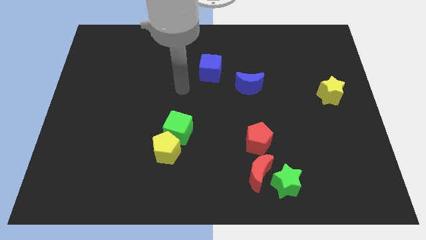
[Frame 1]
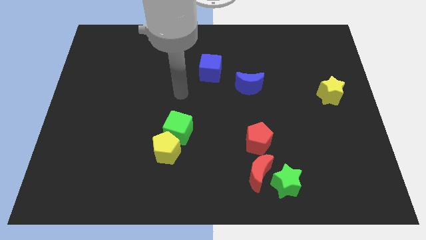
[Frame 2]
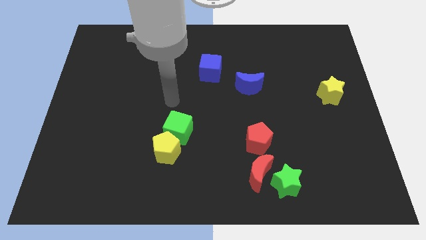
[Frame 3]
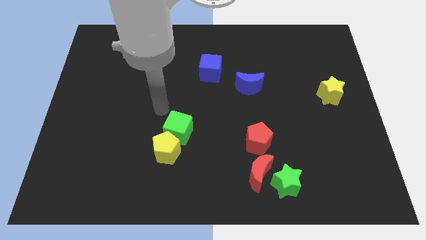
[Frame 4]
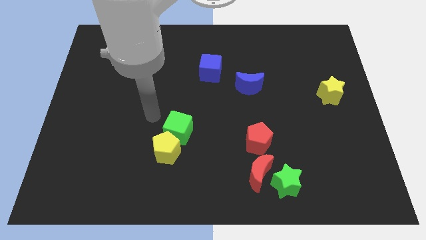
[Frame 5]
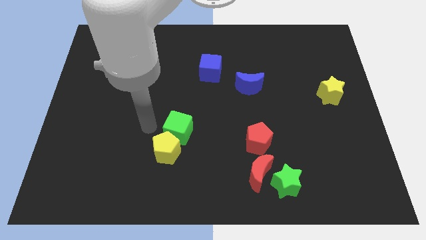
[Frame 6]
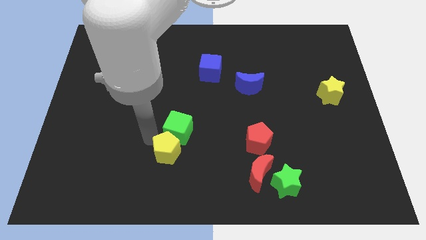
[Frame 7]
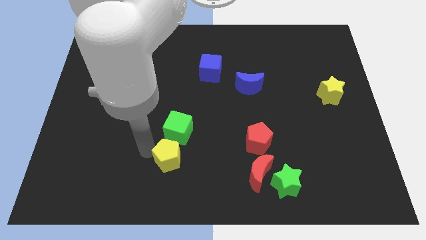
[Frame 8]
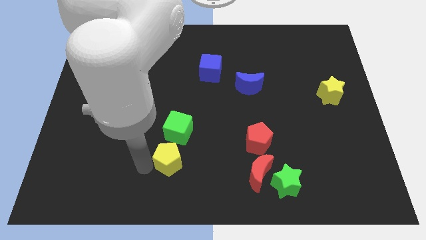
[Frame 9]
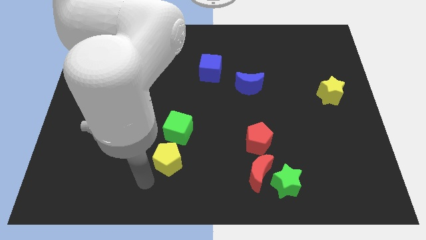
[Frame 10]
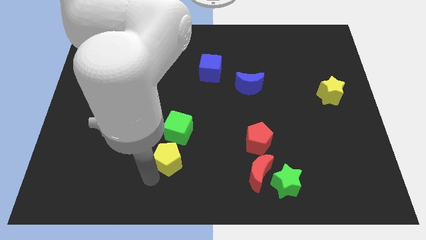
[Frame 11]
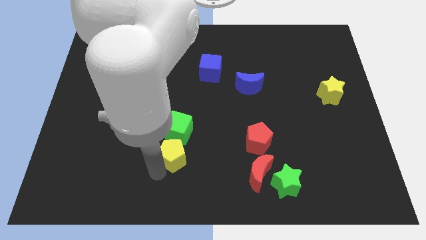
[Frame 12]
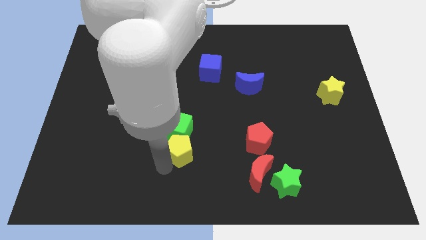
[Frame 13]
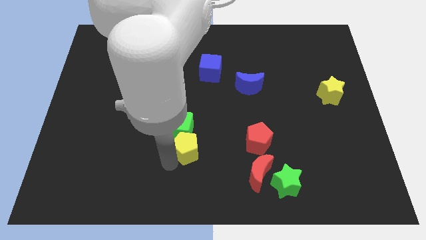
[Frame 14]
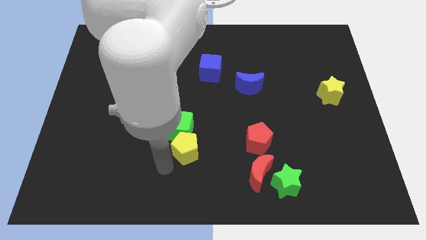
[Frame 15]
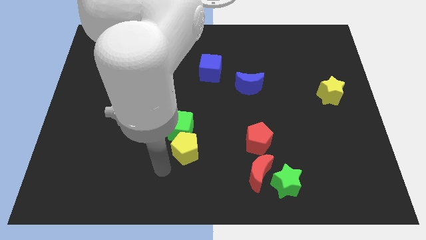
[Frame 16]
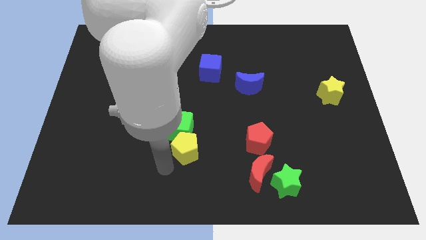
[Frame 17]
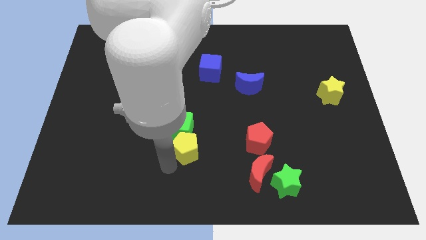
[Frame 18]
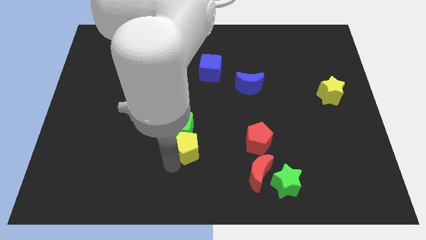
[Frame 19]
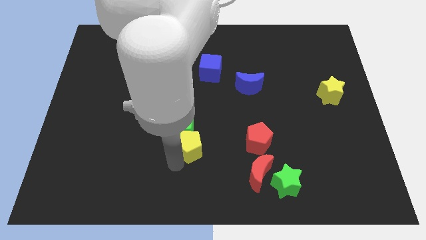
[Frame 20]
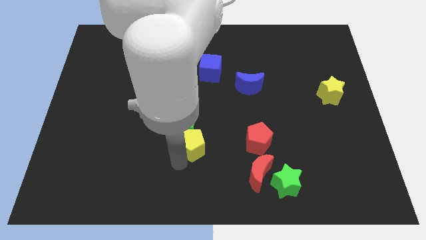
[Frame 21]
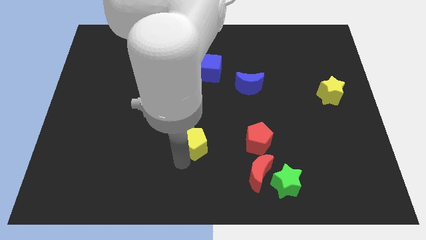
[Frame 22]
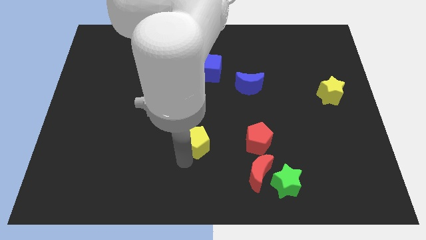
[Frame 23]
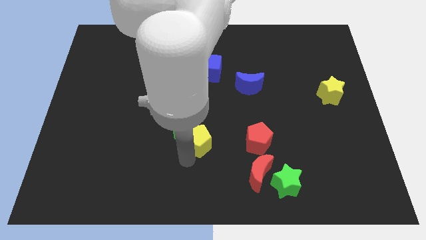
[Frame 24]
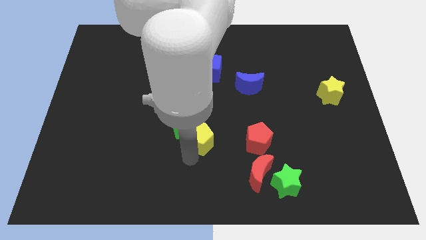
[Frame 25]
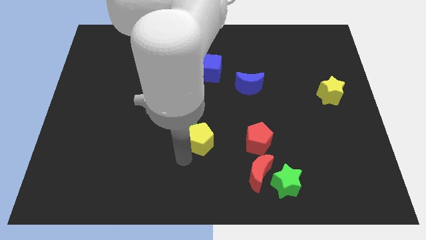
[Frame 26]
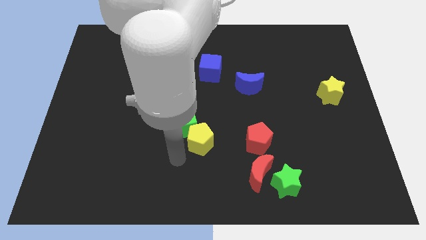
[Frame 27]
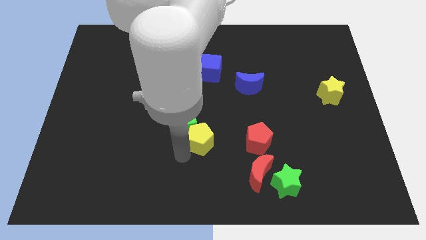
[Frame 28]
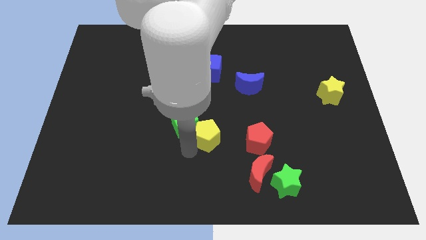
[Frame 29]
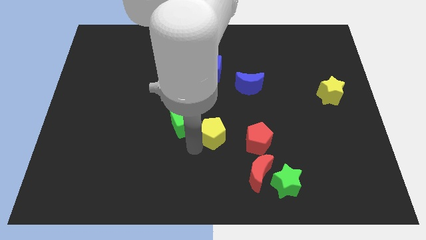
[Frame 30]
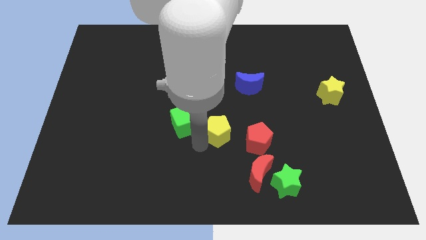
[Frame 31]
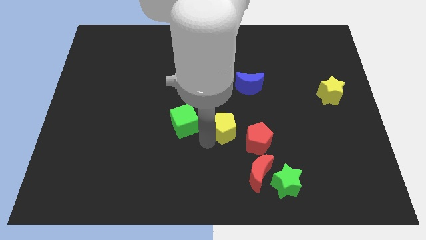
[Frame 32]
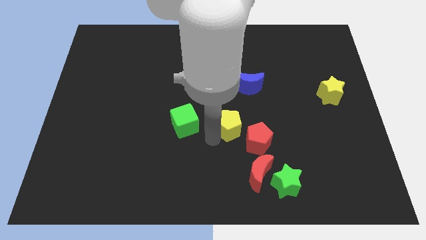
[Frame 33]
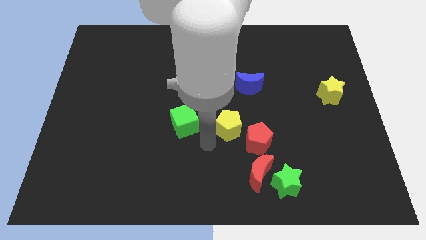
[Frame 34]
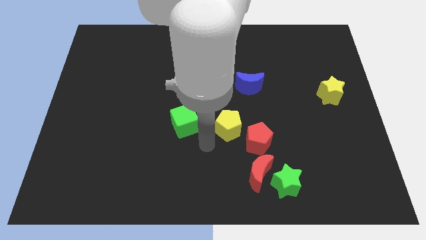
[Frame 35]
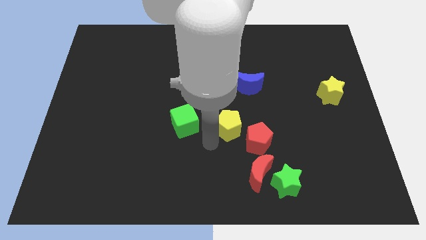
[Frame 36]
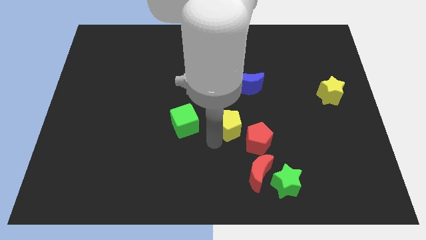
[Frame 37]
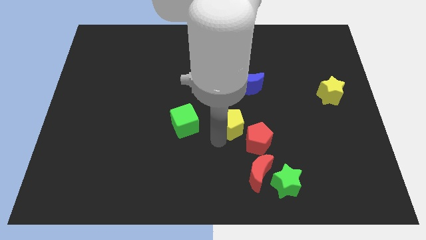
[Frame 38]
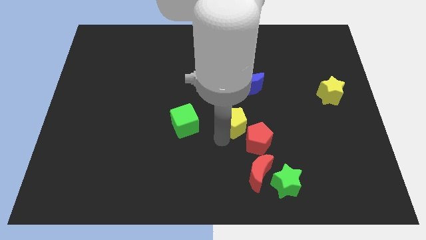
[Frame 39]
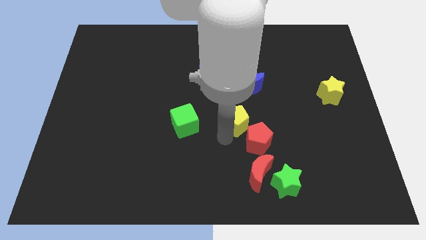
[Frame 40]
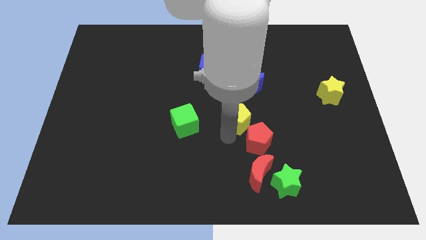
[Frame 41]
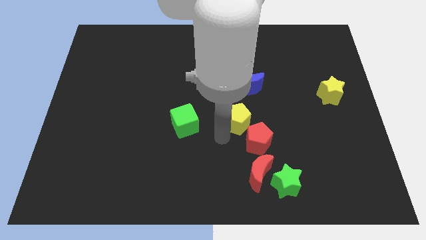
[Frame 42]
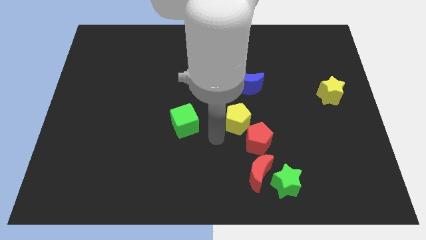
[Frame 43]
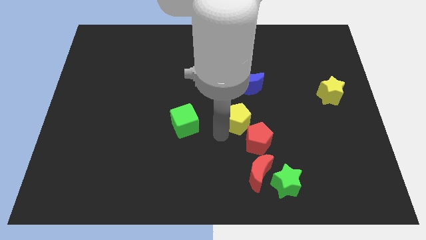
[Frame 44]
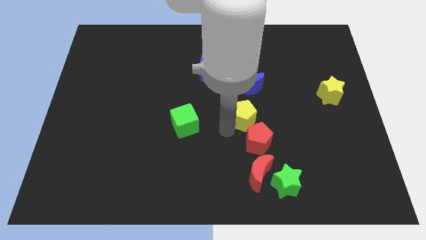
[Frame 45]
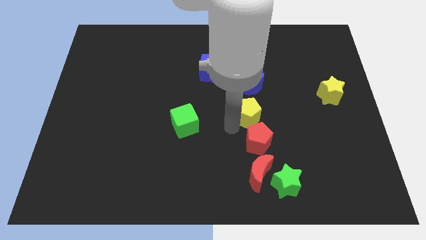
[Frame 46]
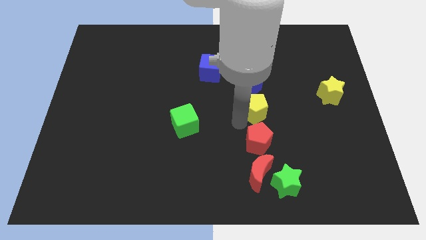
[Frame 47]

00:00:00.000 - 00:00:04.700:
slide the yellow pentagon up and to the right diagonally

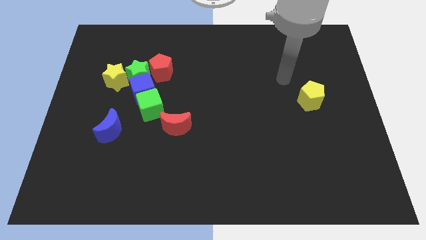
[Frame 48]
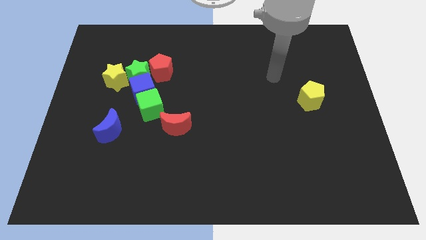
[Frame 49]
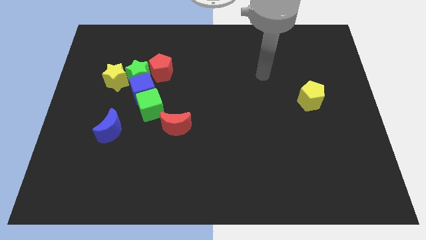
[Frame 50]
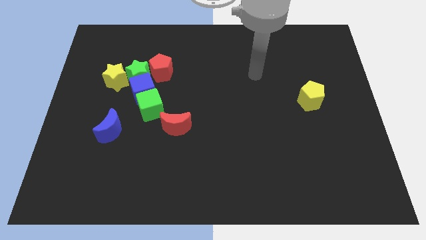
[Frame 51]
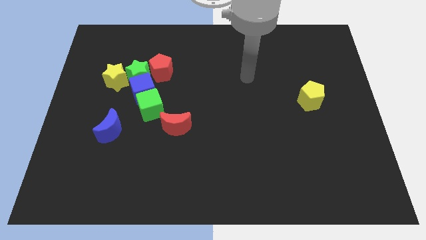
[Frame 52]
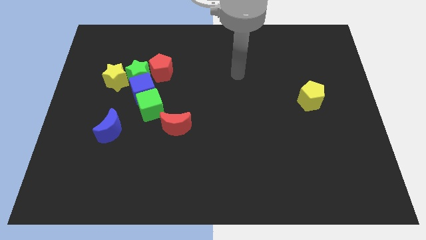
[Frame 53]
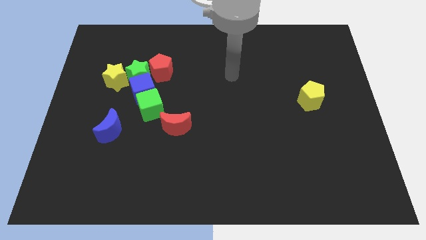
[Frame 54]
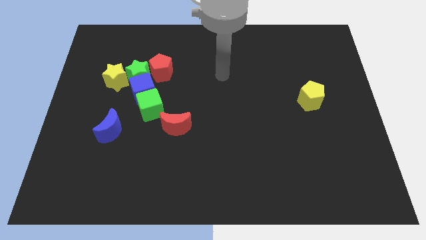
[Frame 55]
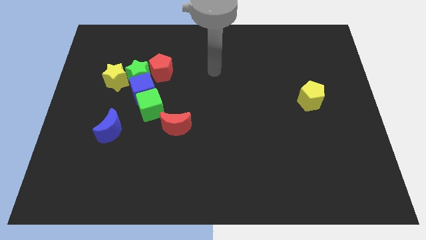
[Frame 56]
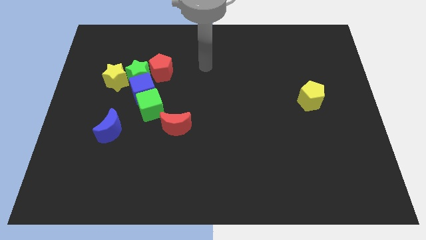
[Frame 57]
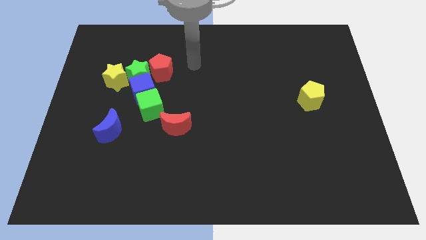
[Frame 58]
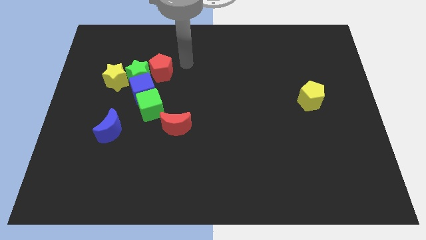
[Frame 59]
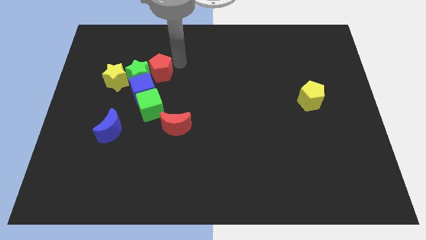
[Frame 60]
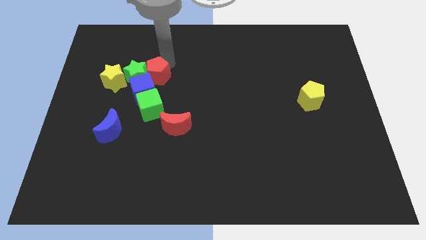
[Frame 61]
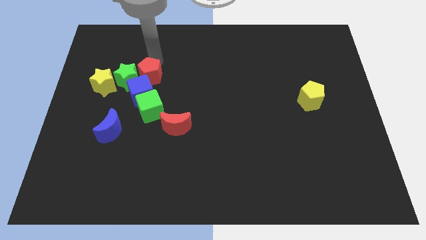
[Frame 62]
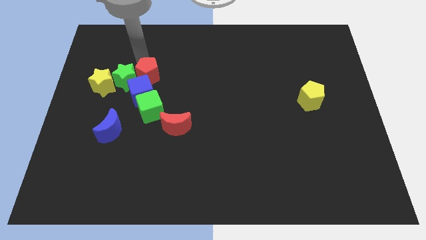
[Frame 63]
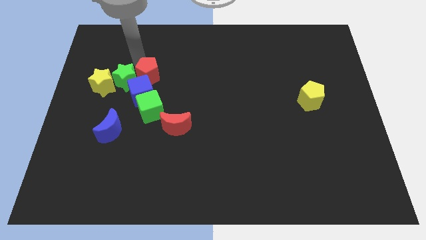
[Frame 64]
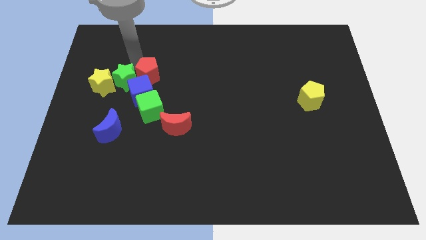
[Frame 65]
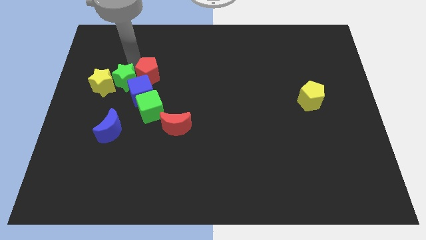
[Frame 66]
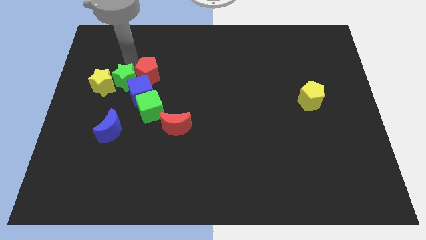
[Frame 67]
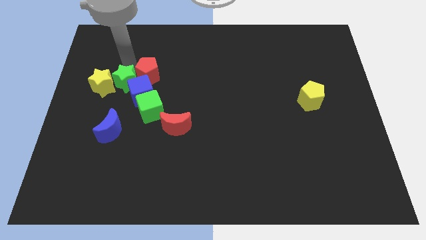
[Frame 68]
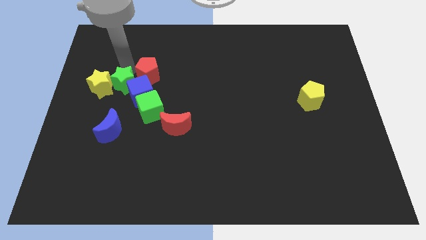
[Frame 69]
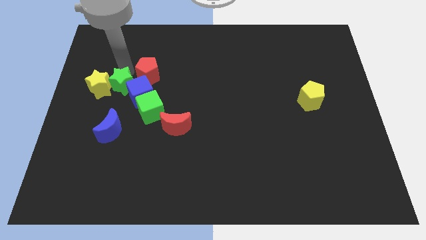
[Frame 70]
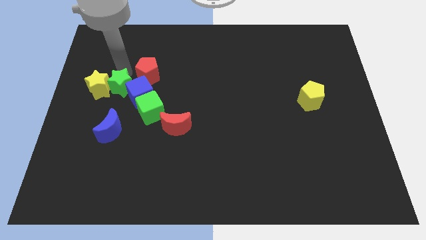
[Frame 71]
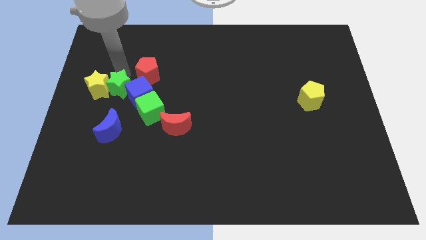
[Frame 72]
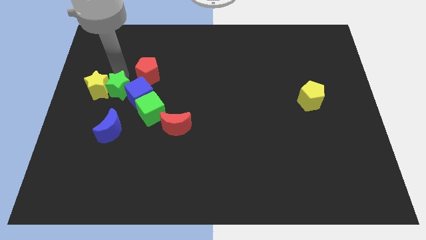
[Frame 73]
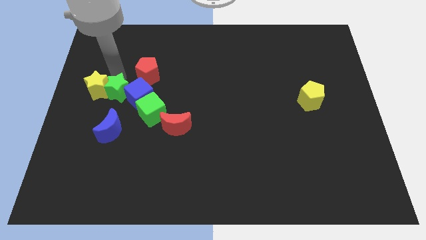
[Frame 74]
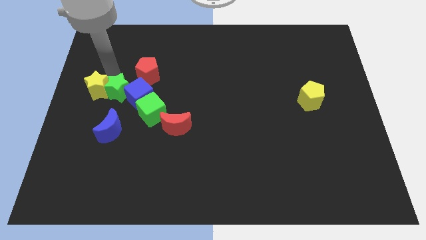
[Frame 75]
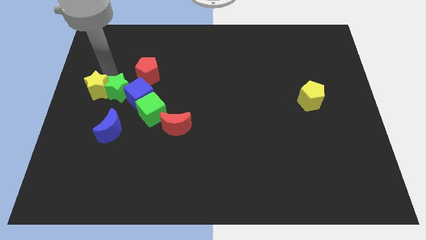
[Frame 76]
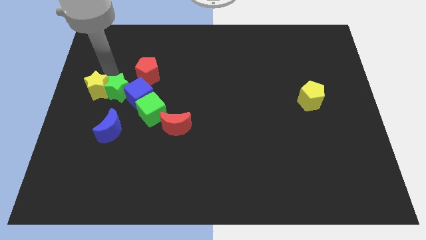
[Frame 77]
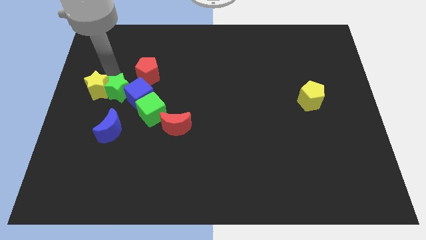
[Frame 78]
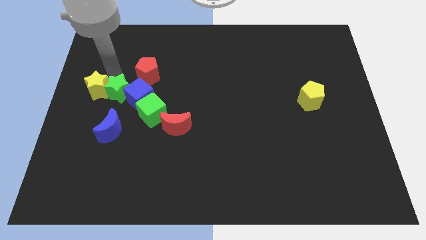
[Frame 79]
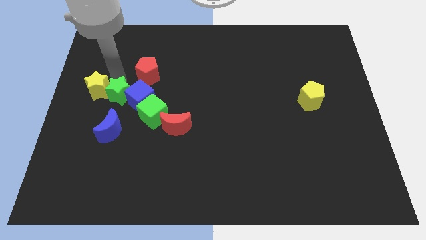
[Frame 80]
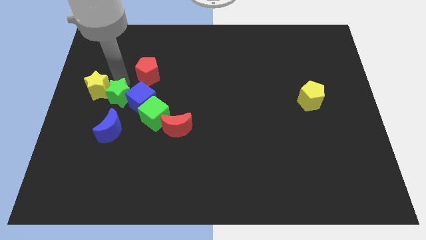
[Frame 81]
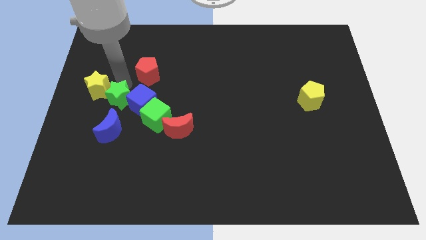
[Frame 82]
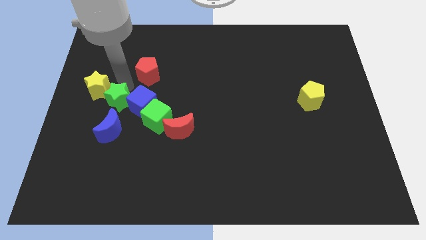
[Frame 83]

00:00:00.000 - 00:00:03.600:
slightly push the green star down
